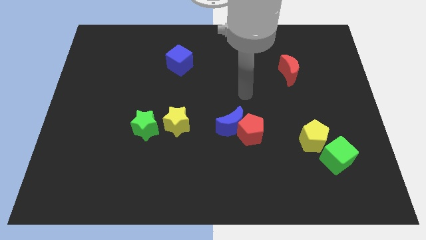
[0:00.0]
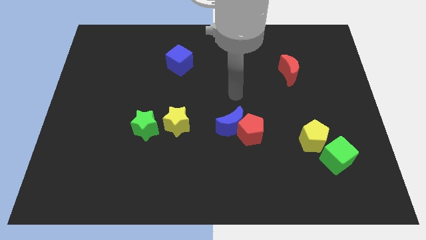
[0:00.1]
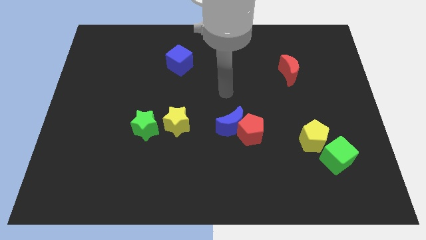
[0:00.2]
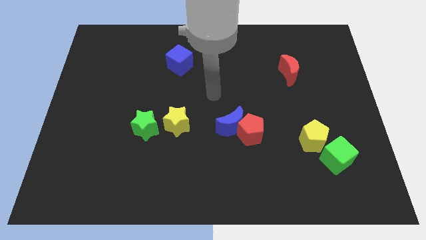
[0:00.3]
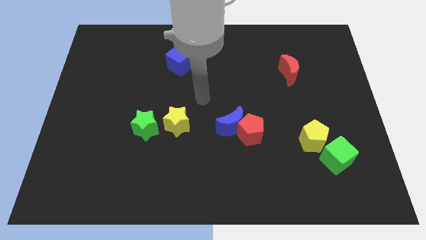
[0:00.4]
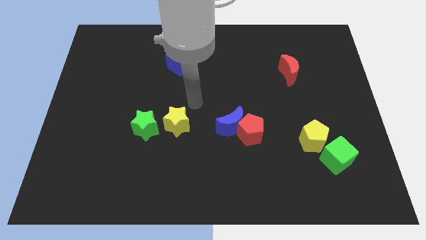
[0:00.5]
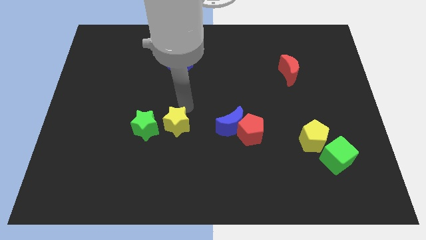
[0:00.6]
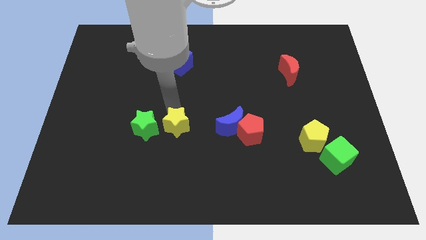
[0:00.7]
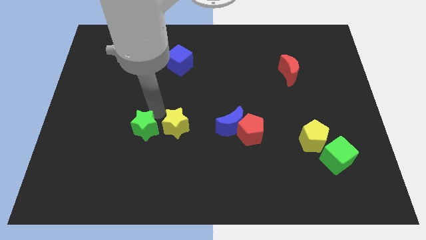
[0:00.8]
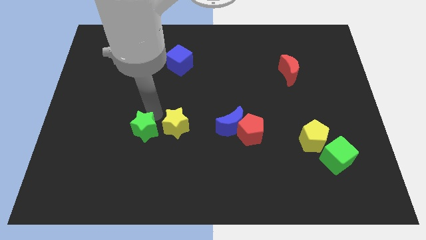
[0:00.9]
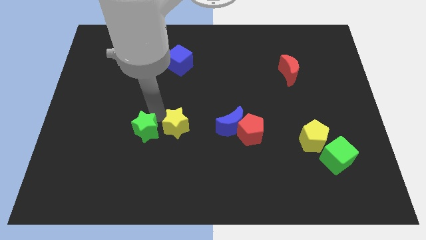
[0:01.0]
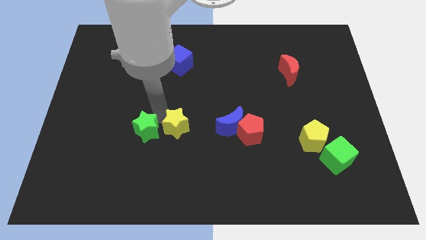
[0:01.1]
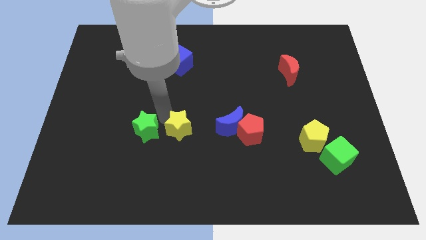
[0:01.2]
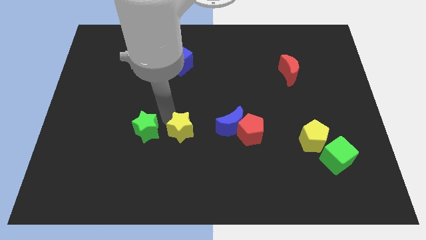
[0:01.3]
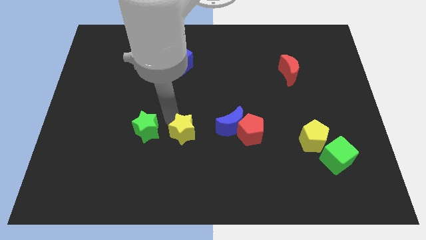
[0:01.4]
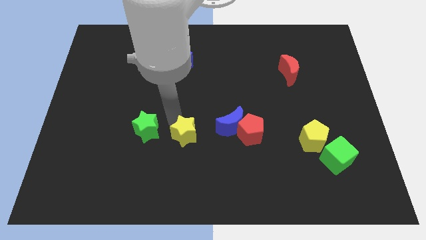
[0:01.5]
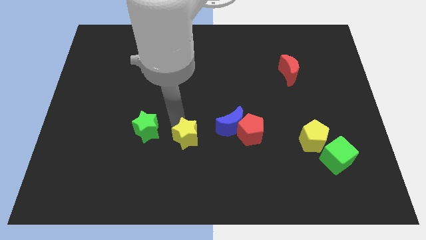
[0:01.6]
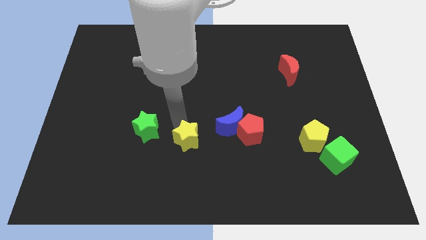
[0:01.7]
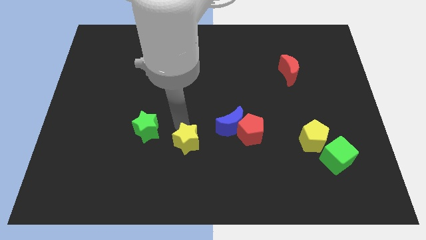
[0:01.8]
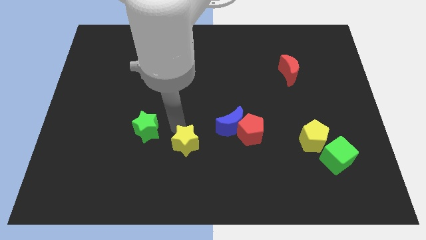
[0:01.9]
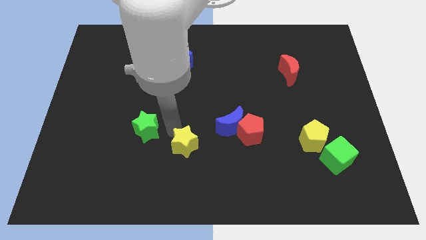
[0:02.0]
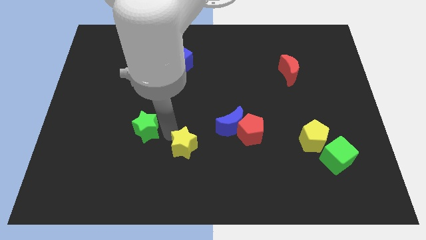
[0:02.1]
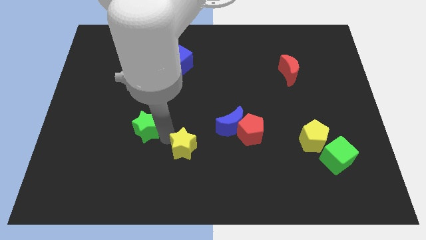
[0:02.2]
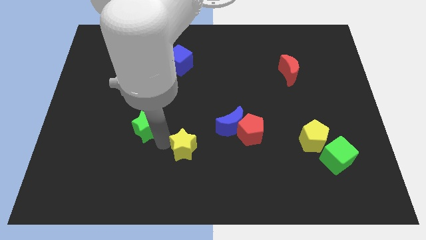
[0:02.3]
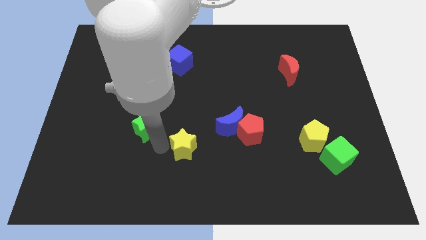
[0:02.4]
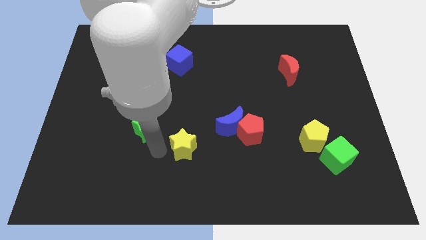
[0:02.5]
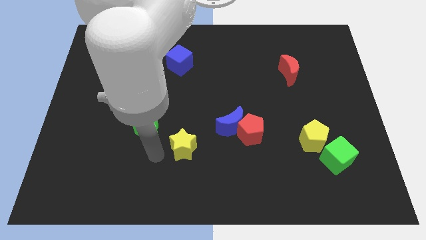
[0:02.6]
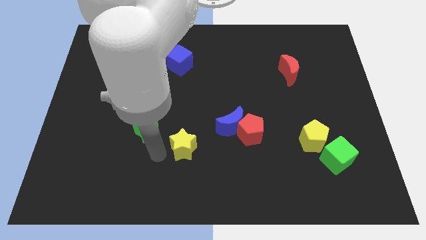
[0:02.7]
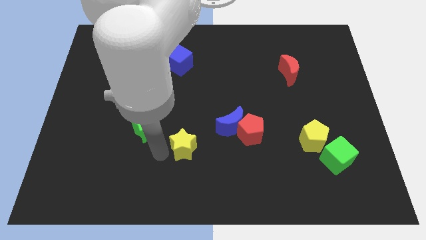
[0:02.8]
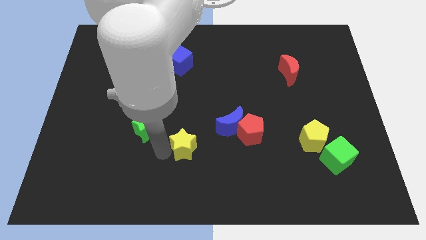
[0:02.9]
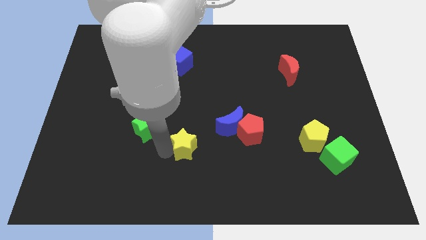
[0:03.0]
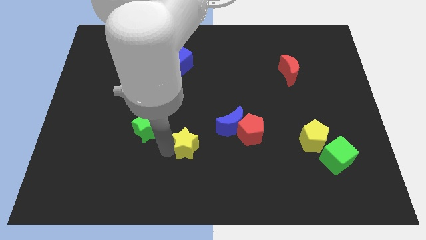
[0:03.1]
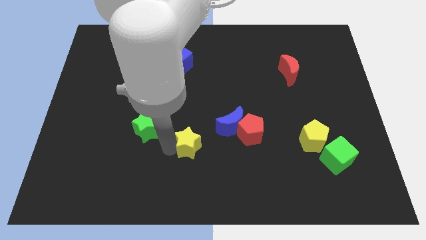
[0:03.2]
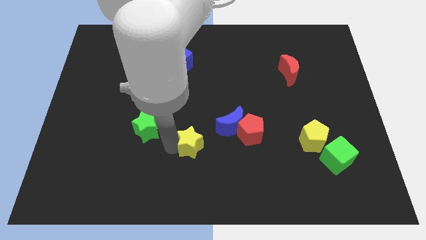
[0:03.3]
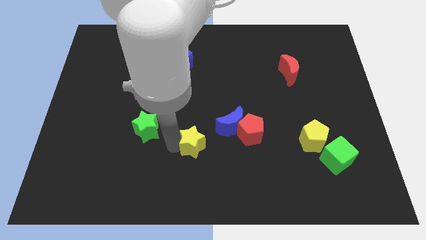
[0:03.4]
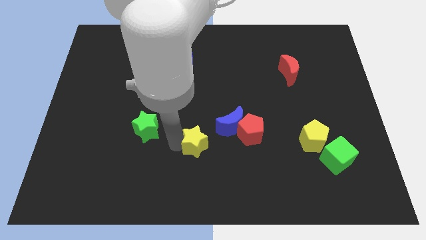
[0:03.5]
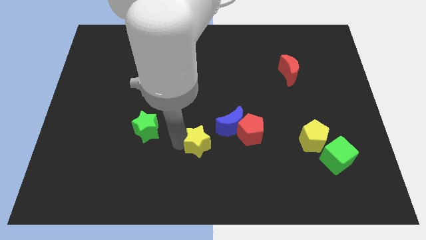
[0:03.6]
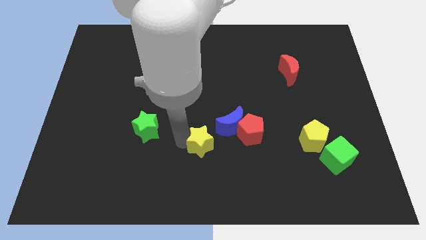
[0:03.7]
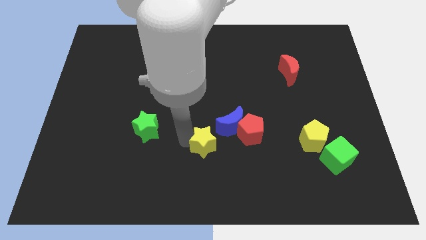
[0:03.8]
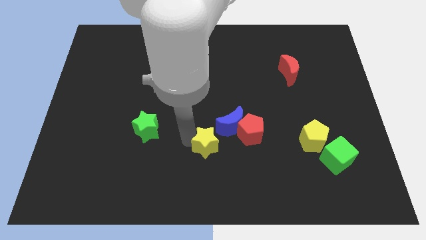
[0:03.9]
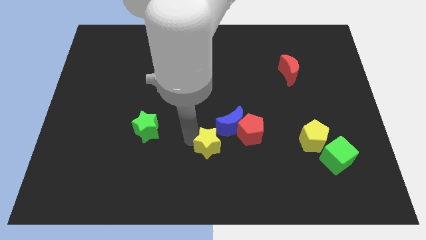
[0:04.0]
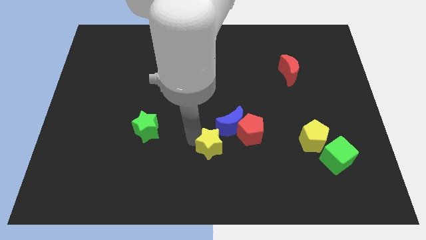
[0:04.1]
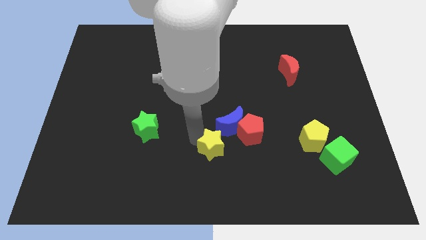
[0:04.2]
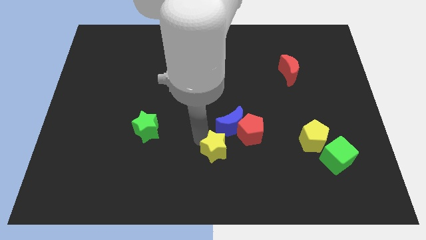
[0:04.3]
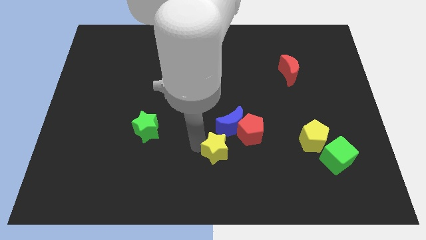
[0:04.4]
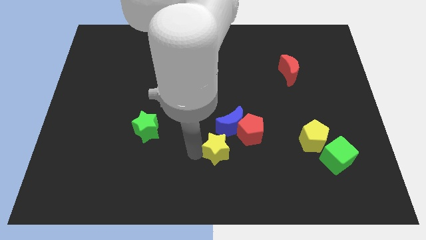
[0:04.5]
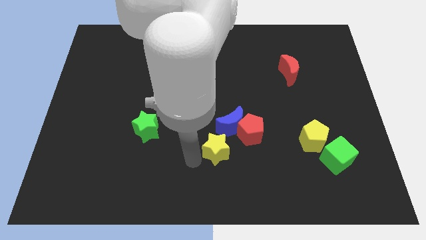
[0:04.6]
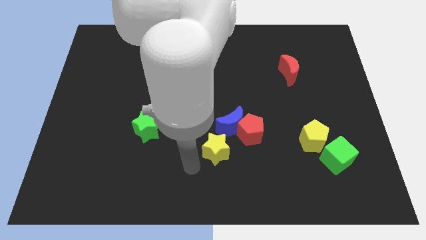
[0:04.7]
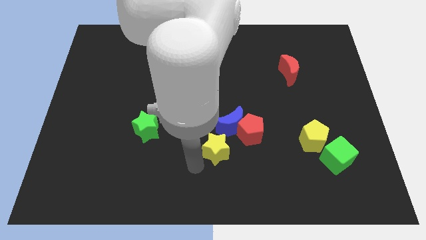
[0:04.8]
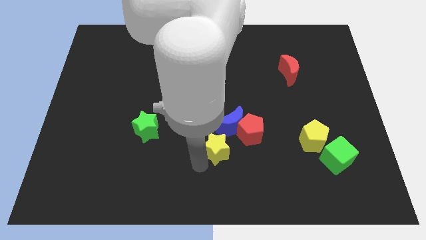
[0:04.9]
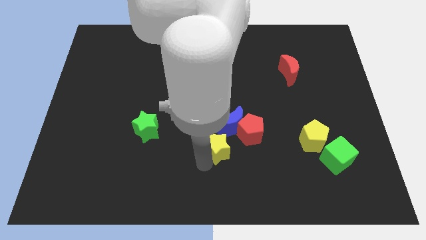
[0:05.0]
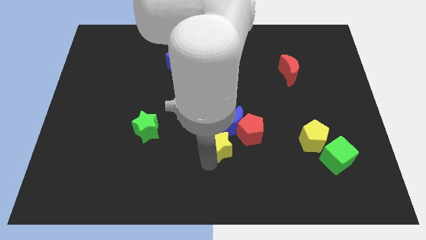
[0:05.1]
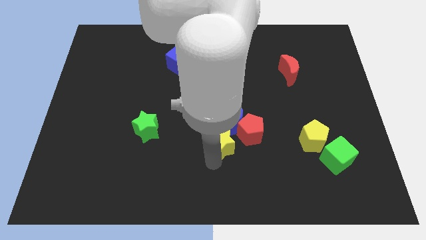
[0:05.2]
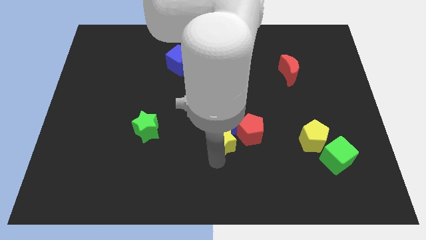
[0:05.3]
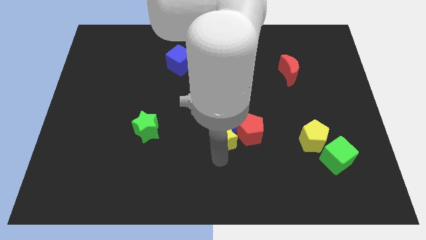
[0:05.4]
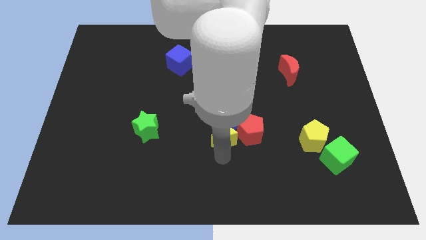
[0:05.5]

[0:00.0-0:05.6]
move the yellow star next to the red pentagon

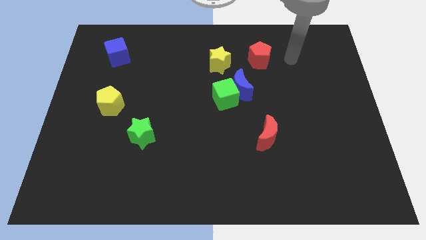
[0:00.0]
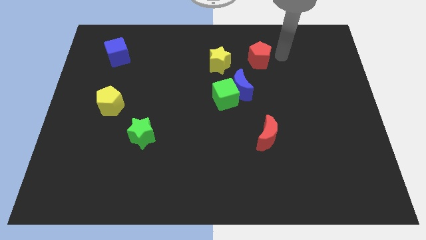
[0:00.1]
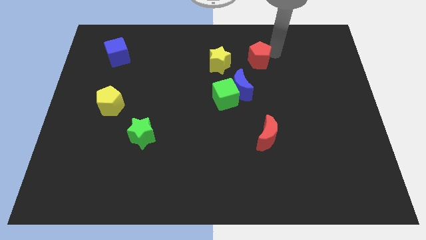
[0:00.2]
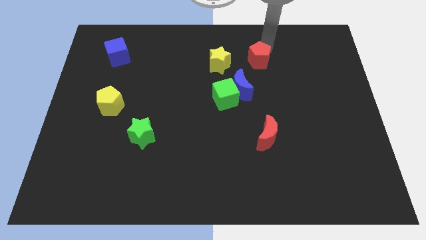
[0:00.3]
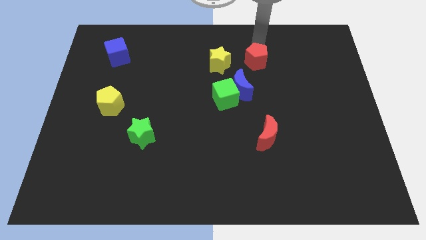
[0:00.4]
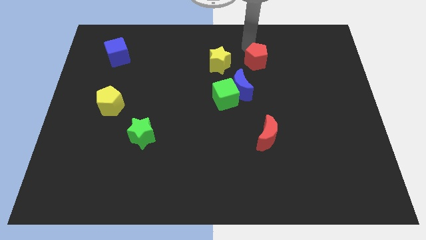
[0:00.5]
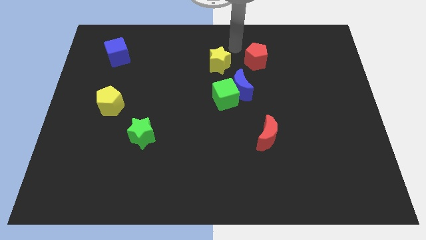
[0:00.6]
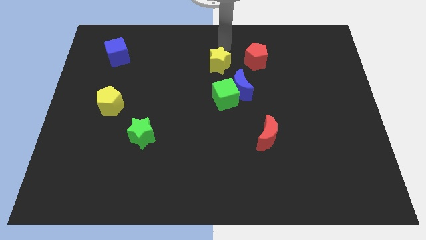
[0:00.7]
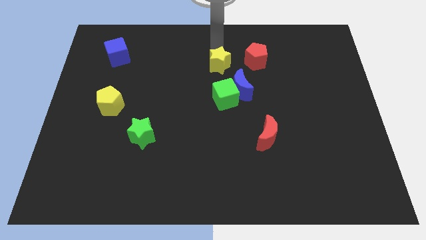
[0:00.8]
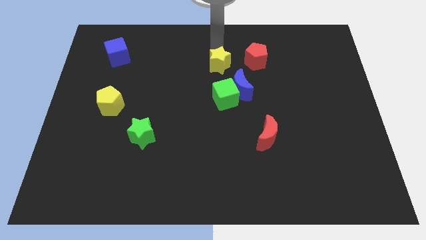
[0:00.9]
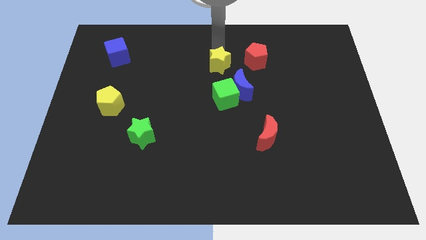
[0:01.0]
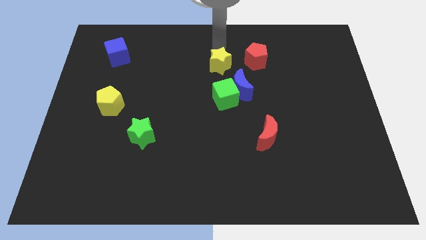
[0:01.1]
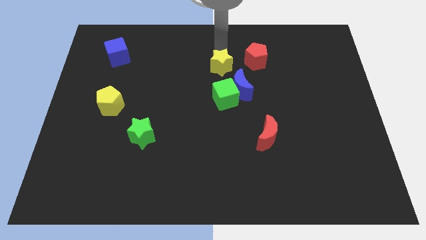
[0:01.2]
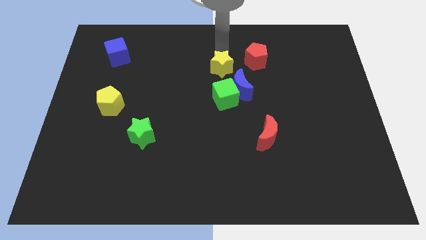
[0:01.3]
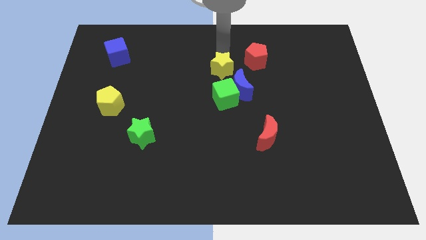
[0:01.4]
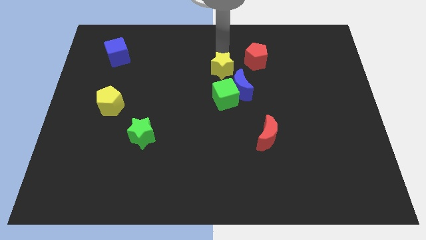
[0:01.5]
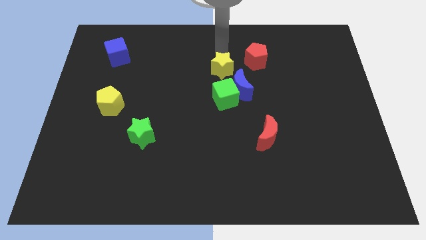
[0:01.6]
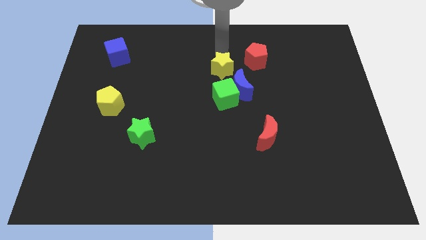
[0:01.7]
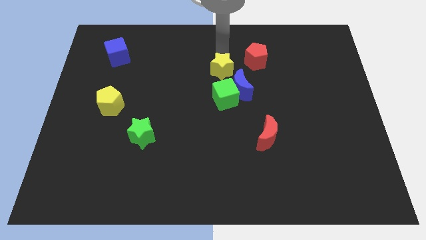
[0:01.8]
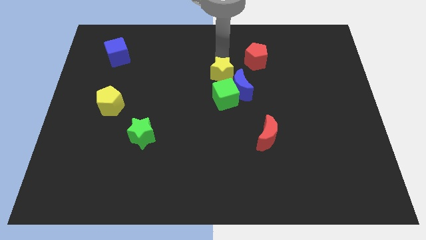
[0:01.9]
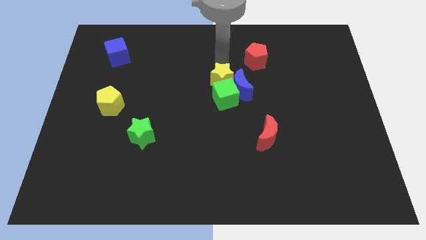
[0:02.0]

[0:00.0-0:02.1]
move the yellow star to the green cube
